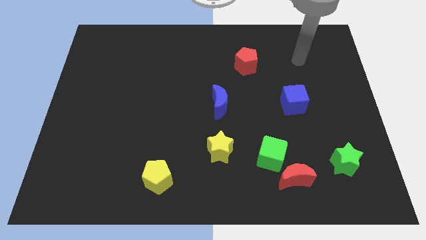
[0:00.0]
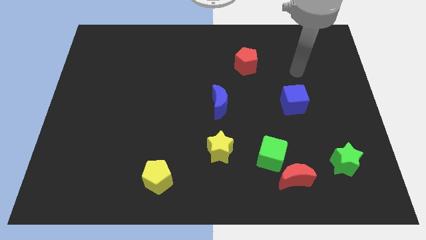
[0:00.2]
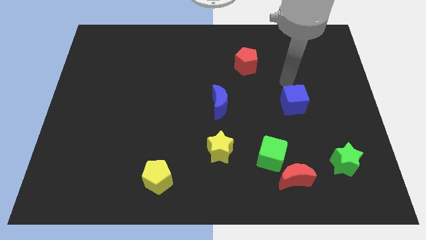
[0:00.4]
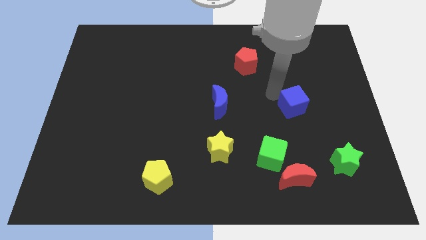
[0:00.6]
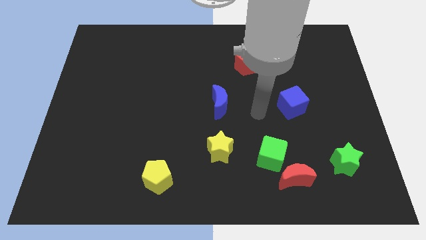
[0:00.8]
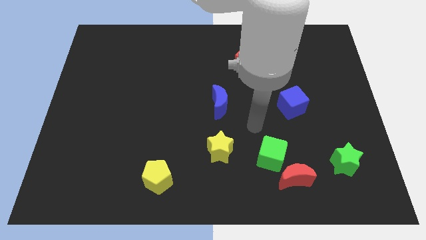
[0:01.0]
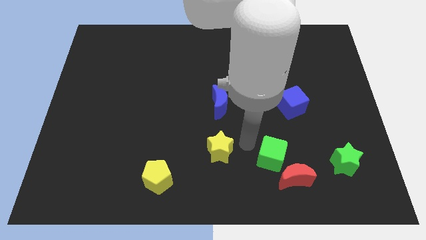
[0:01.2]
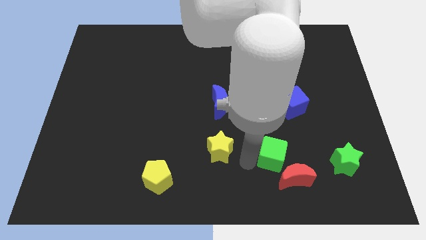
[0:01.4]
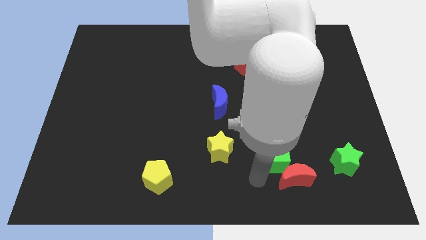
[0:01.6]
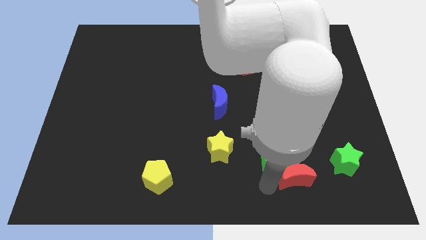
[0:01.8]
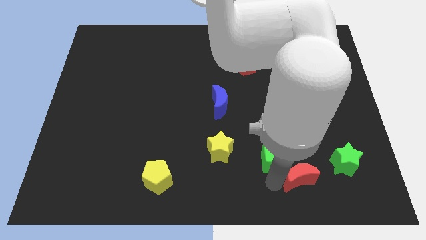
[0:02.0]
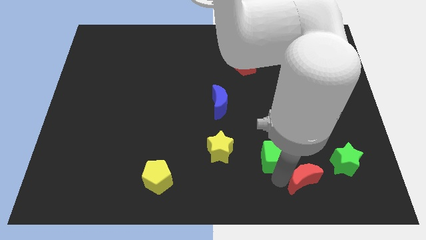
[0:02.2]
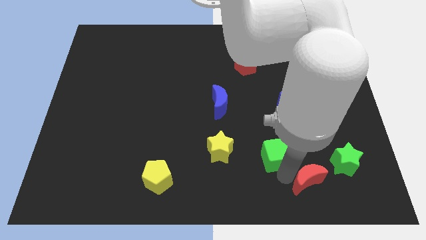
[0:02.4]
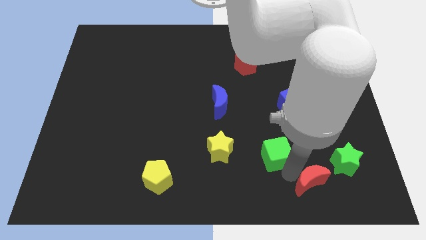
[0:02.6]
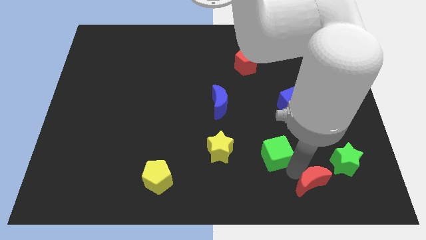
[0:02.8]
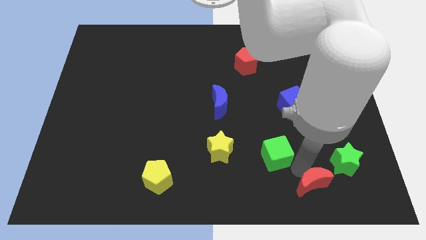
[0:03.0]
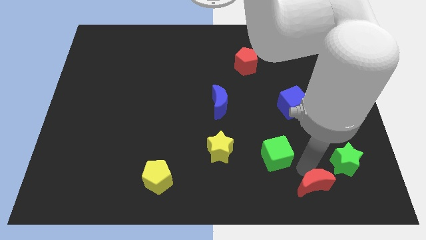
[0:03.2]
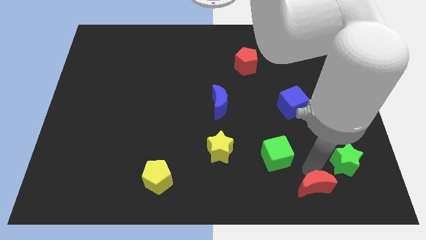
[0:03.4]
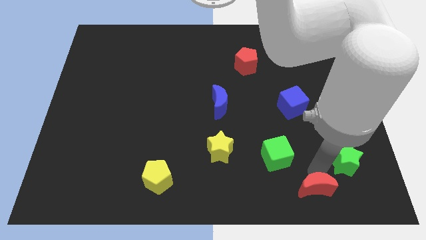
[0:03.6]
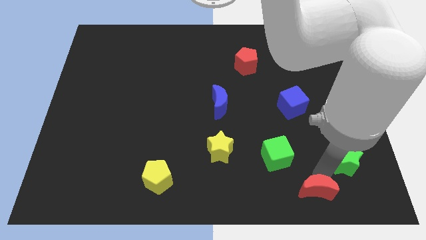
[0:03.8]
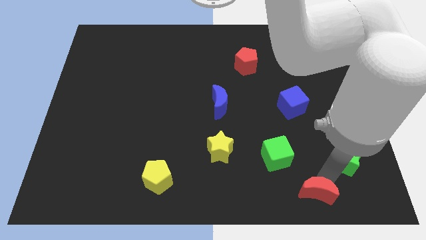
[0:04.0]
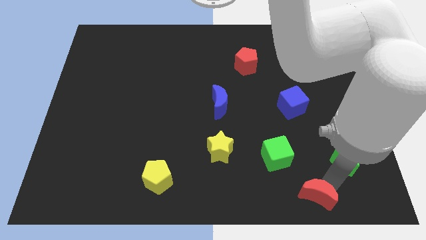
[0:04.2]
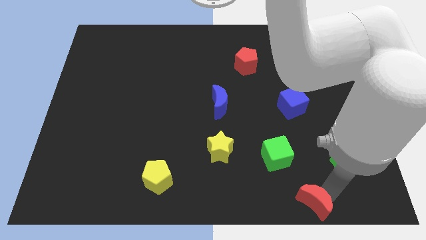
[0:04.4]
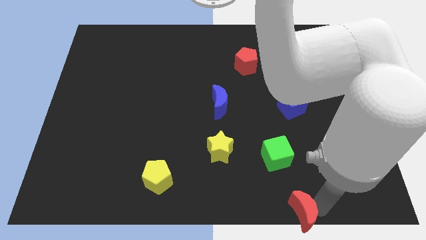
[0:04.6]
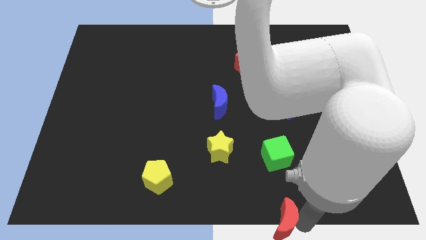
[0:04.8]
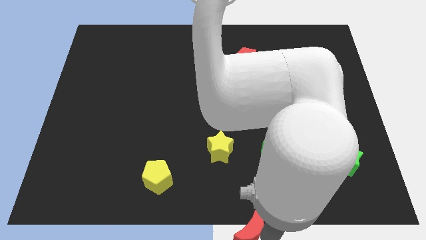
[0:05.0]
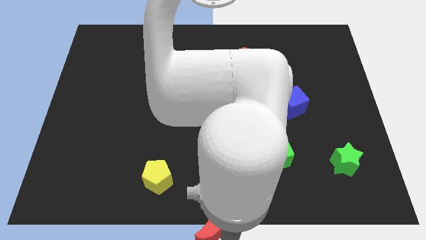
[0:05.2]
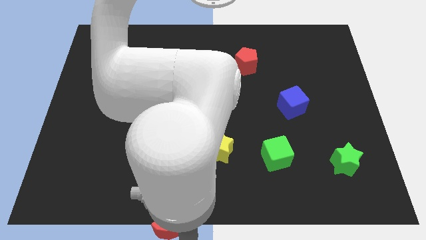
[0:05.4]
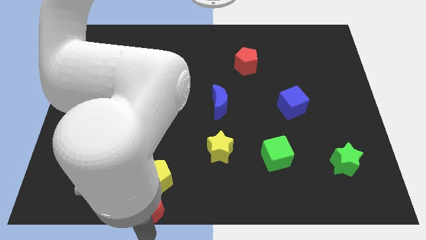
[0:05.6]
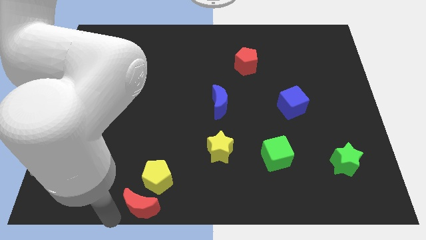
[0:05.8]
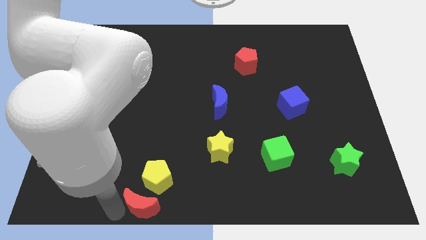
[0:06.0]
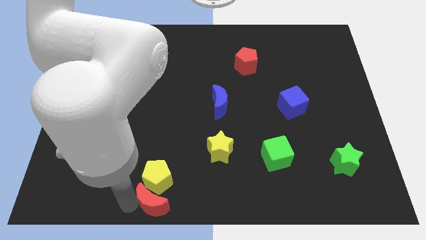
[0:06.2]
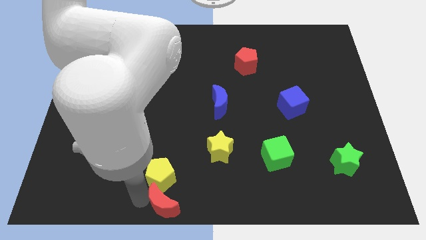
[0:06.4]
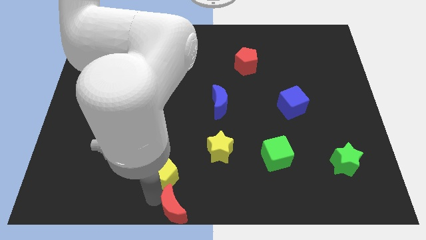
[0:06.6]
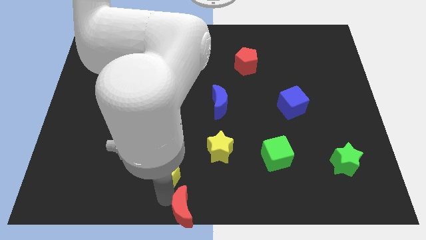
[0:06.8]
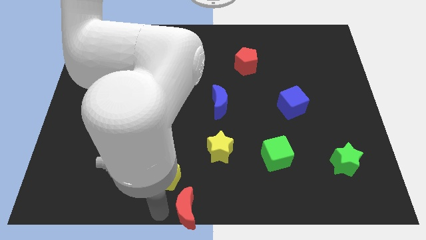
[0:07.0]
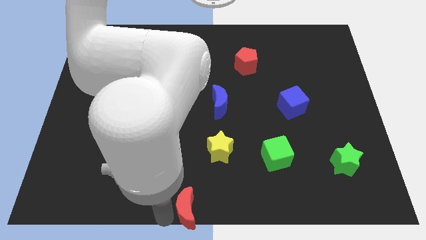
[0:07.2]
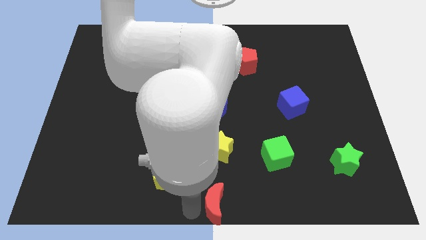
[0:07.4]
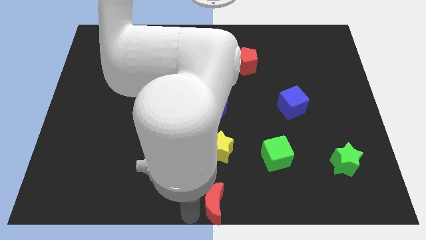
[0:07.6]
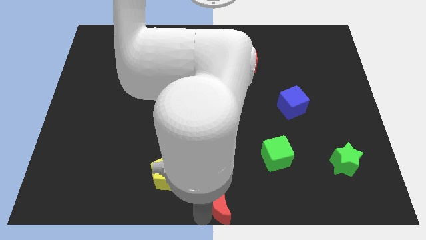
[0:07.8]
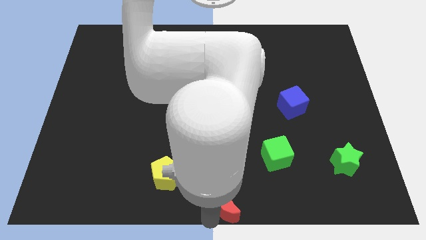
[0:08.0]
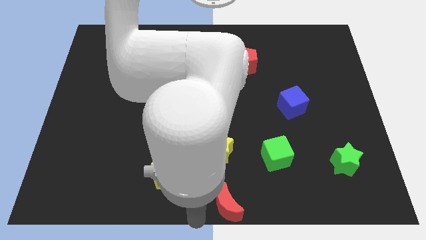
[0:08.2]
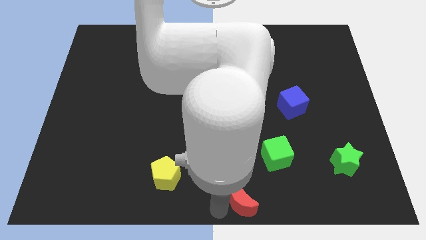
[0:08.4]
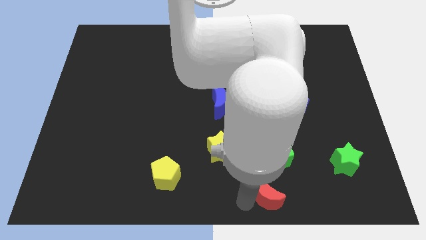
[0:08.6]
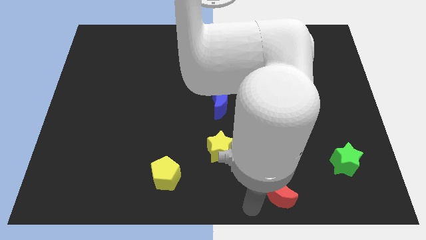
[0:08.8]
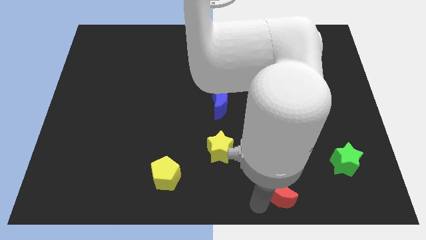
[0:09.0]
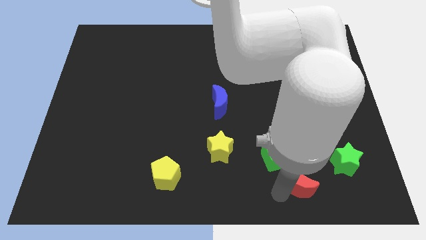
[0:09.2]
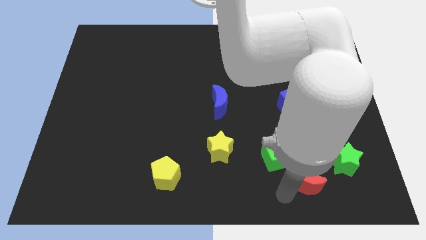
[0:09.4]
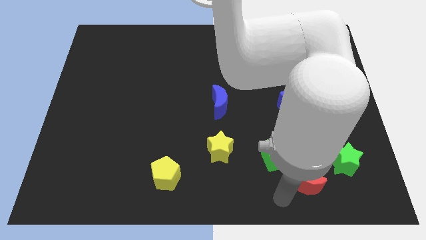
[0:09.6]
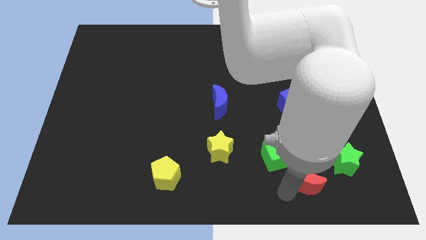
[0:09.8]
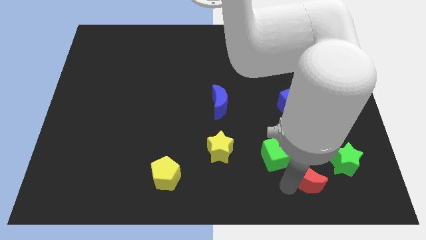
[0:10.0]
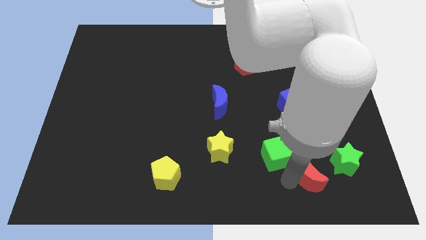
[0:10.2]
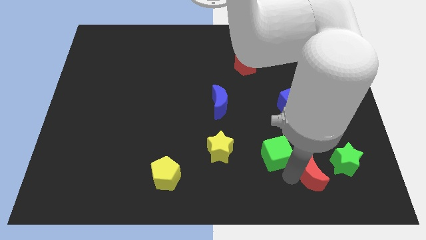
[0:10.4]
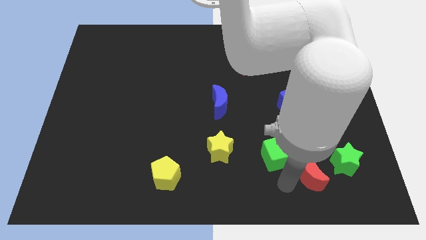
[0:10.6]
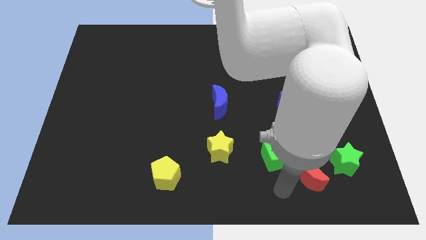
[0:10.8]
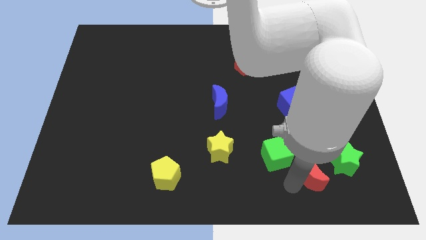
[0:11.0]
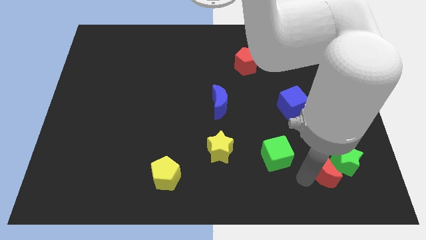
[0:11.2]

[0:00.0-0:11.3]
put the red moon next to the green star

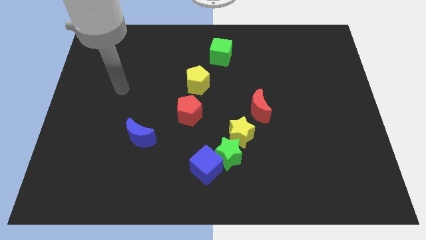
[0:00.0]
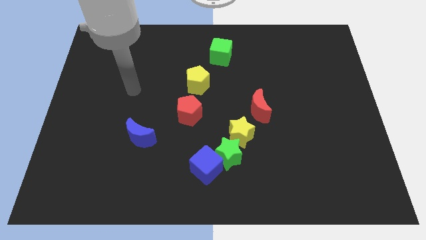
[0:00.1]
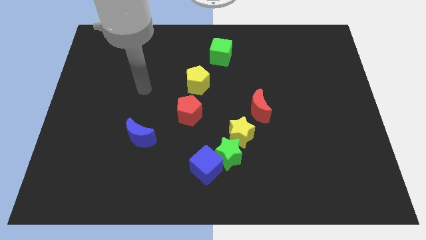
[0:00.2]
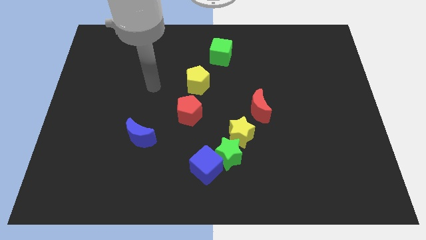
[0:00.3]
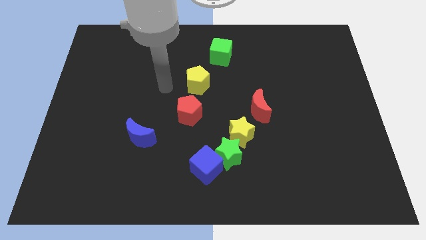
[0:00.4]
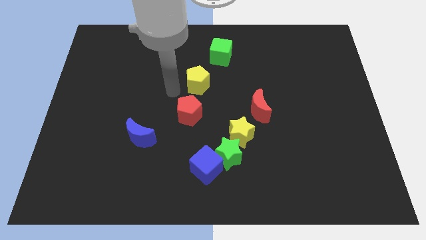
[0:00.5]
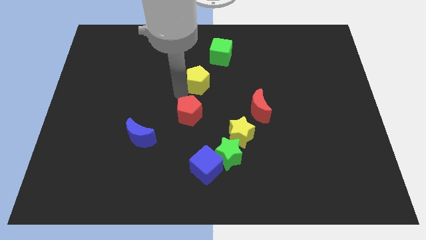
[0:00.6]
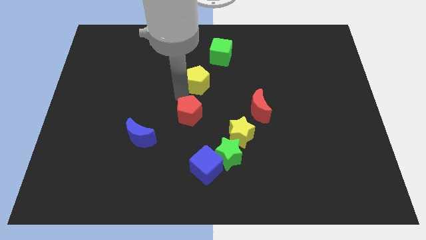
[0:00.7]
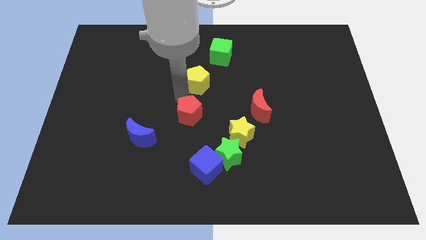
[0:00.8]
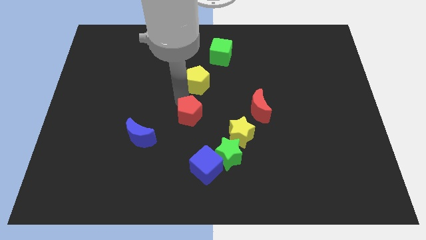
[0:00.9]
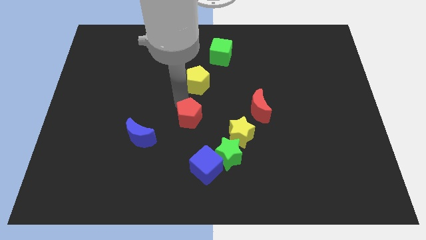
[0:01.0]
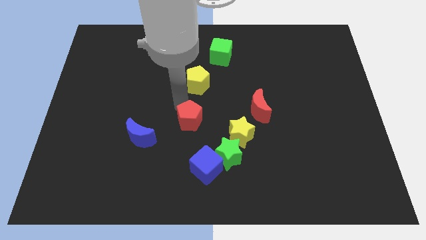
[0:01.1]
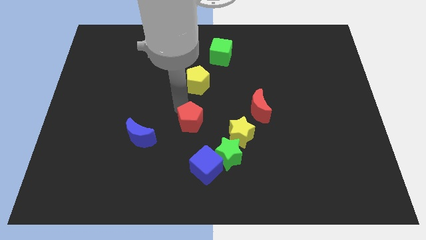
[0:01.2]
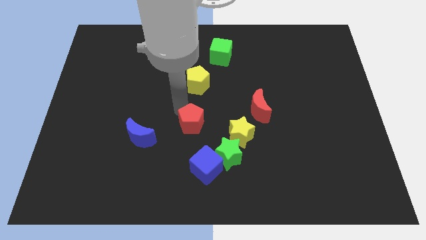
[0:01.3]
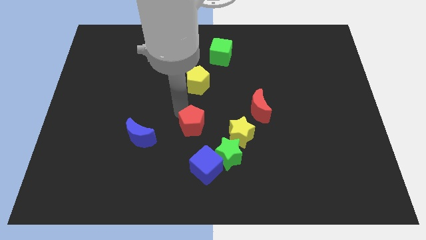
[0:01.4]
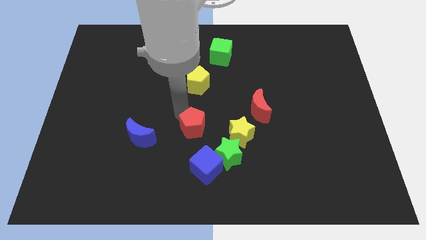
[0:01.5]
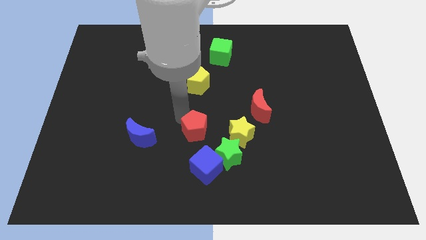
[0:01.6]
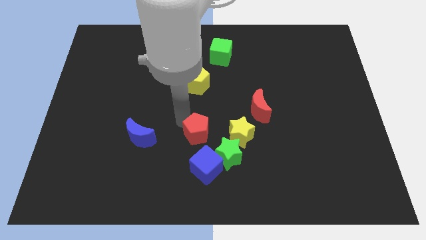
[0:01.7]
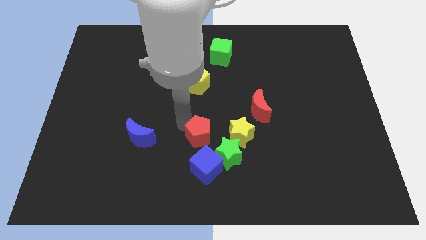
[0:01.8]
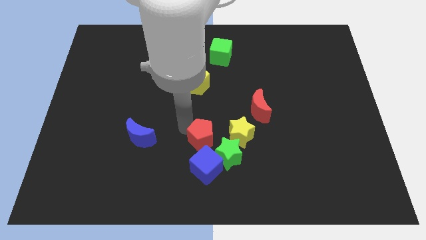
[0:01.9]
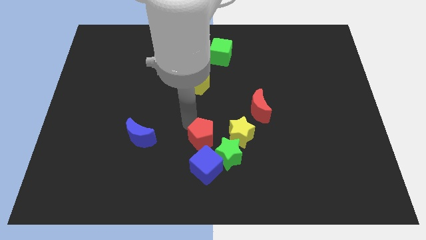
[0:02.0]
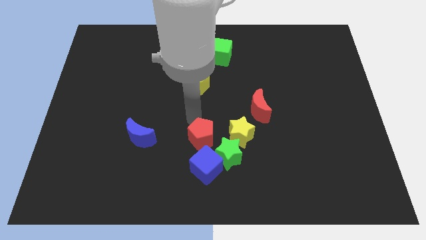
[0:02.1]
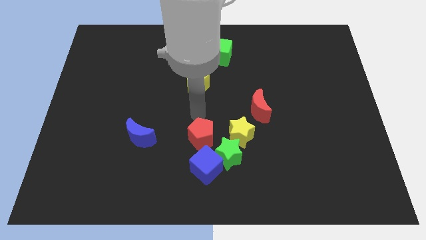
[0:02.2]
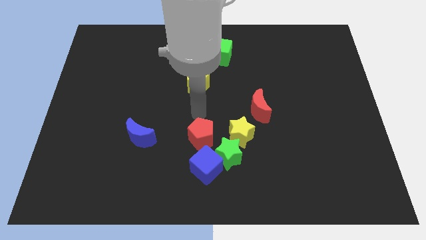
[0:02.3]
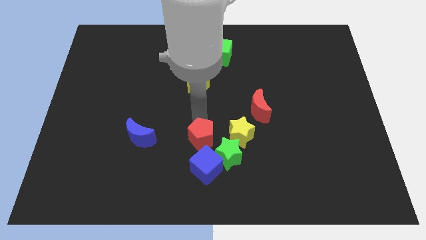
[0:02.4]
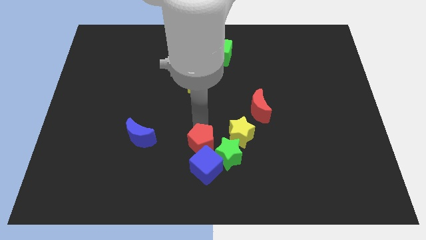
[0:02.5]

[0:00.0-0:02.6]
move the red pentagon towards the blue cube
